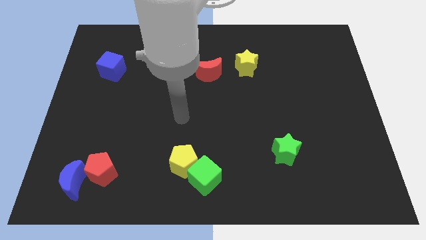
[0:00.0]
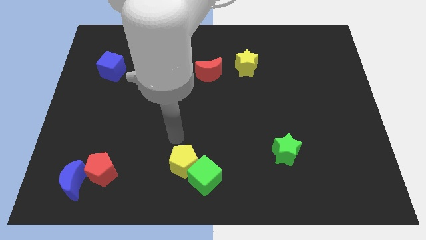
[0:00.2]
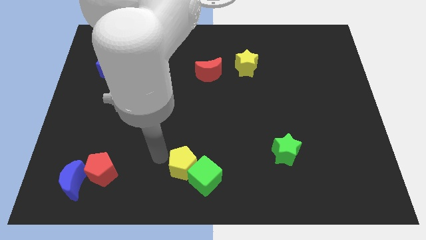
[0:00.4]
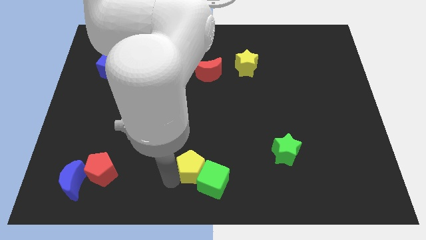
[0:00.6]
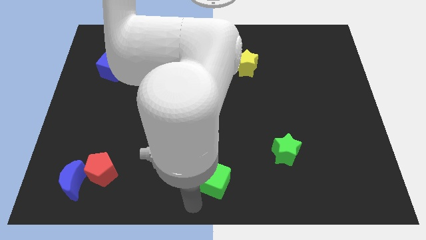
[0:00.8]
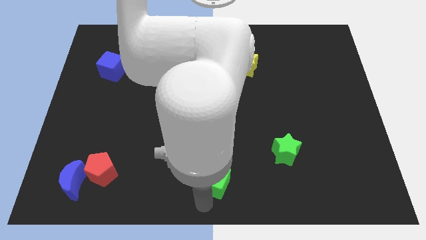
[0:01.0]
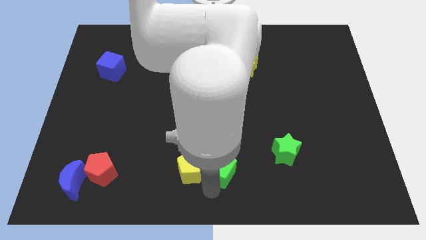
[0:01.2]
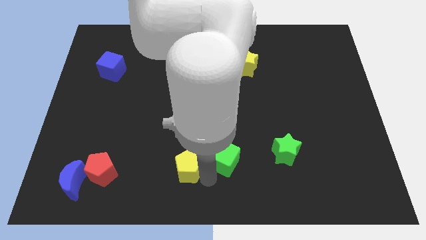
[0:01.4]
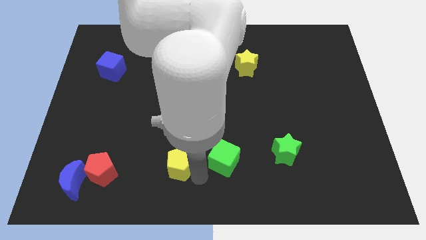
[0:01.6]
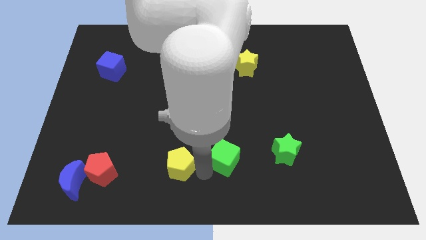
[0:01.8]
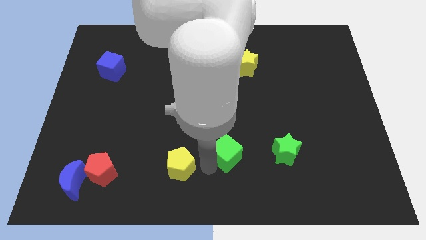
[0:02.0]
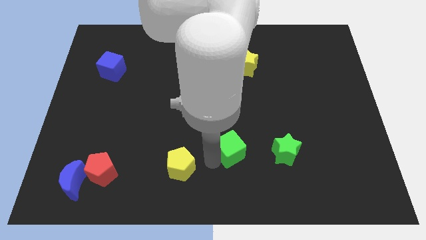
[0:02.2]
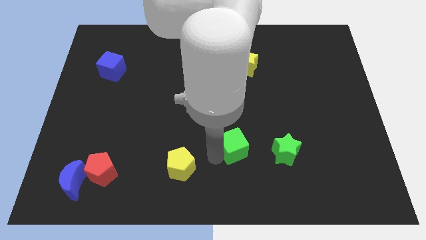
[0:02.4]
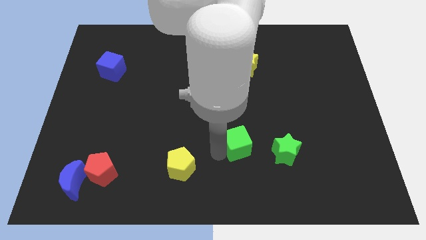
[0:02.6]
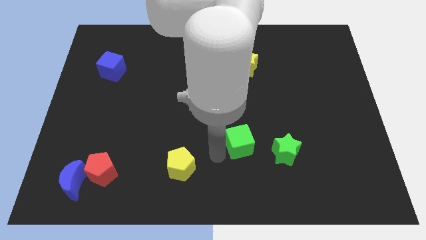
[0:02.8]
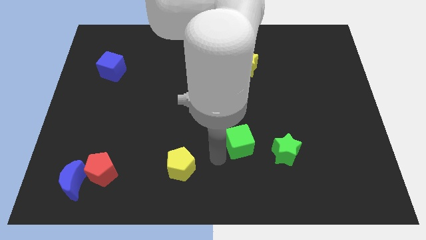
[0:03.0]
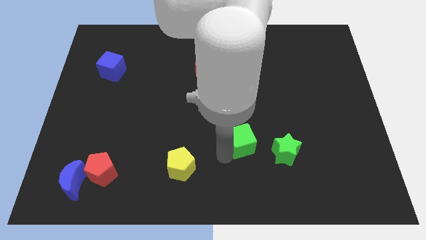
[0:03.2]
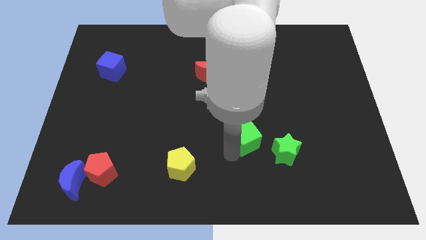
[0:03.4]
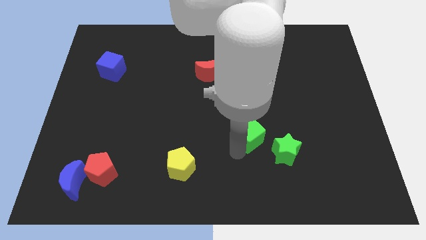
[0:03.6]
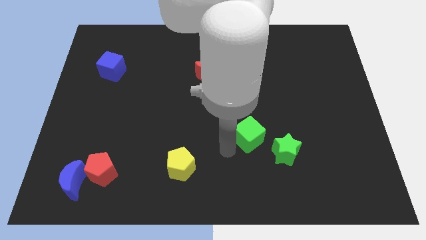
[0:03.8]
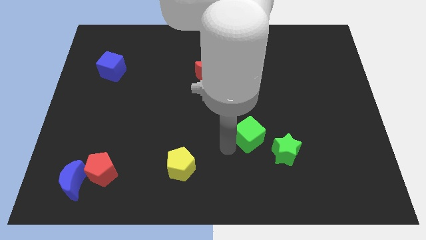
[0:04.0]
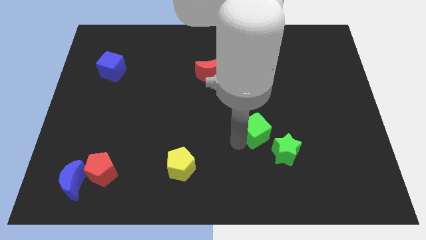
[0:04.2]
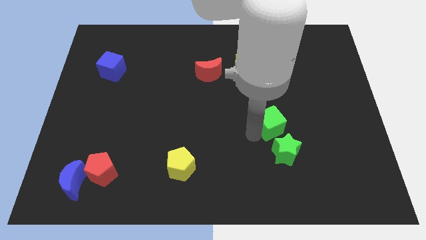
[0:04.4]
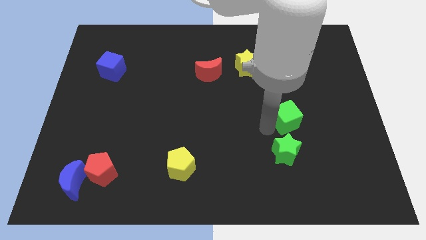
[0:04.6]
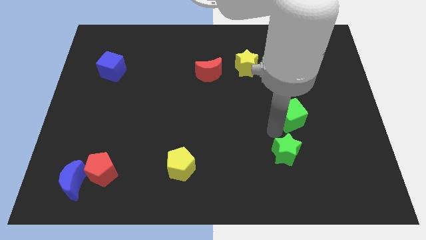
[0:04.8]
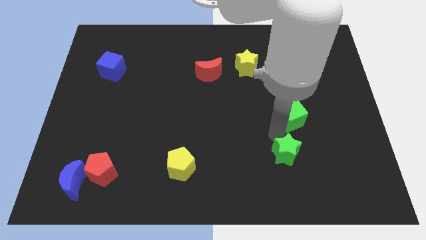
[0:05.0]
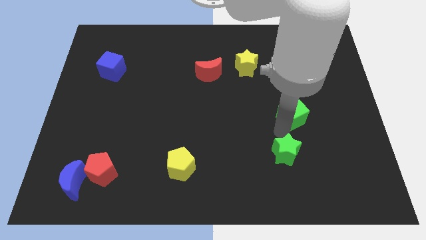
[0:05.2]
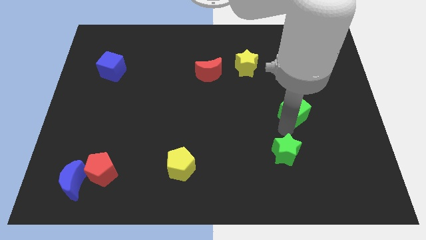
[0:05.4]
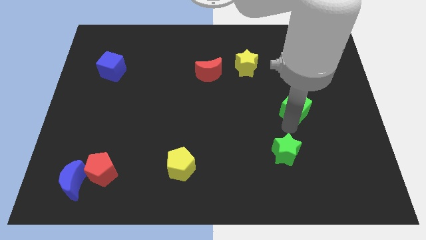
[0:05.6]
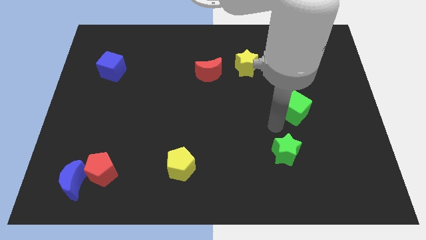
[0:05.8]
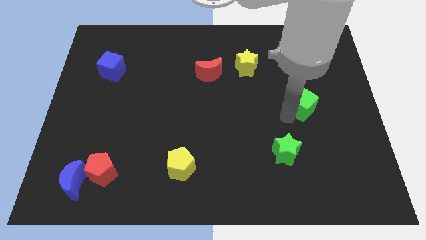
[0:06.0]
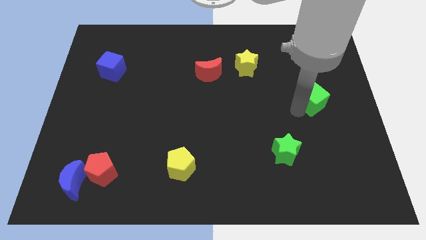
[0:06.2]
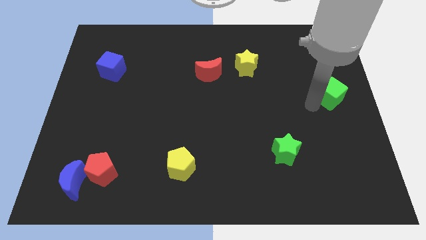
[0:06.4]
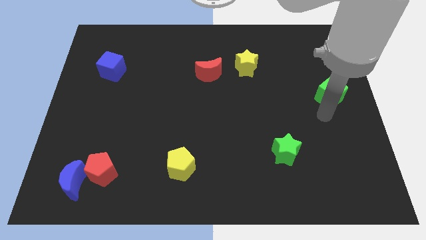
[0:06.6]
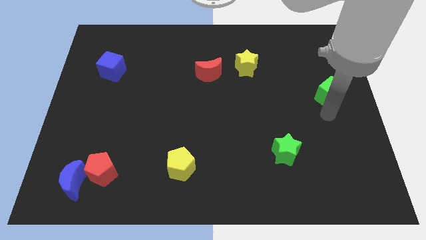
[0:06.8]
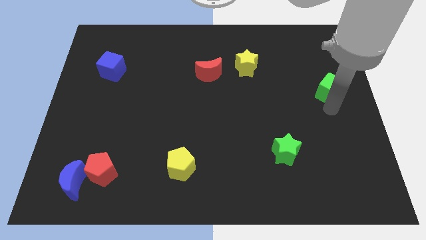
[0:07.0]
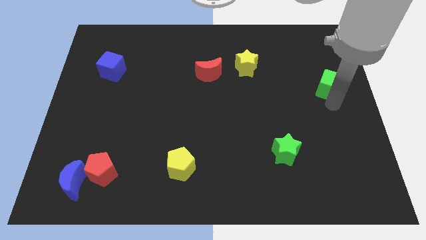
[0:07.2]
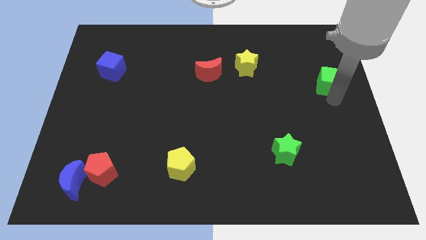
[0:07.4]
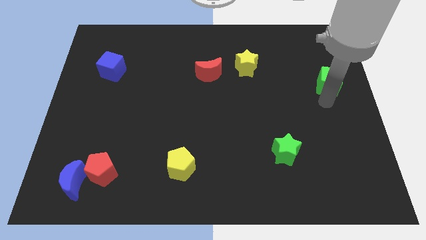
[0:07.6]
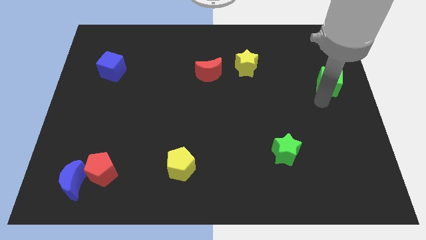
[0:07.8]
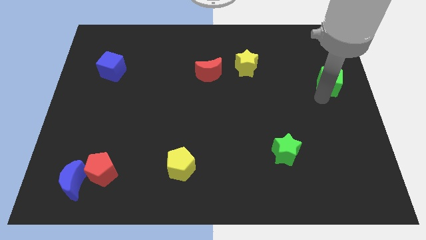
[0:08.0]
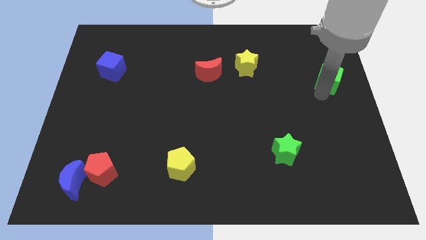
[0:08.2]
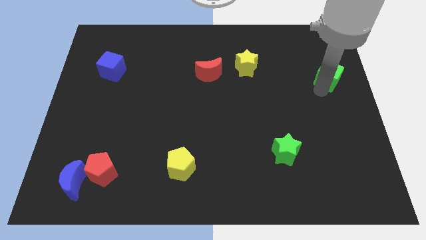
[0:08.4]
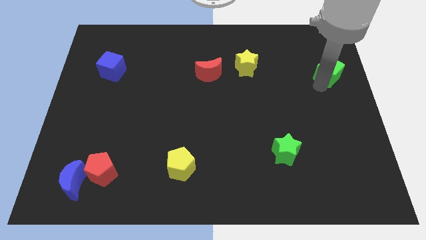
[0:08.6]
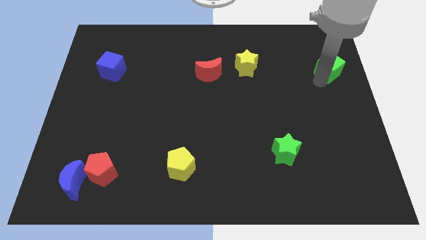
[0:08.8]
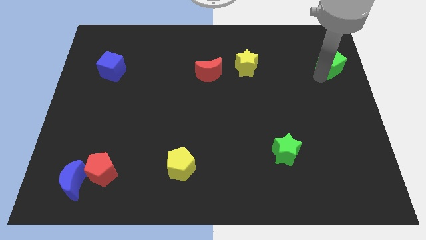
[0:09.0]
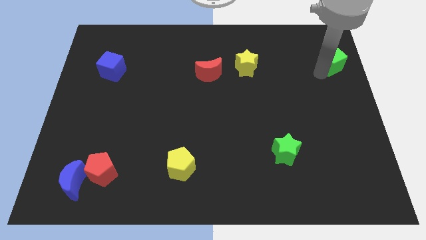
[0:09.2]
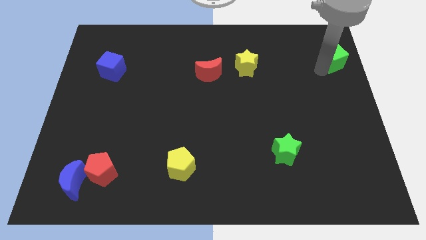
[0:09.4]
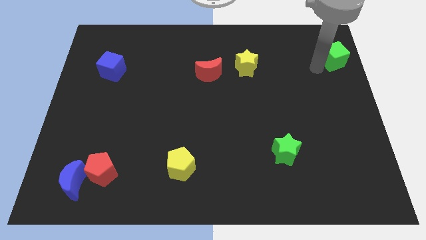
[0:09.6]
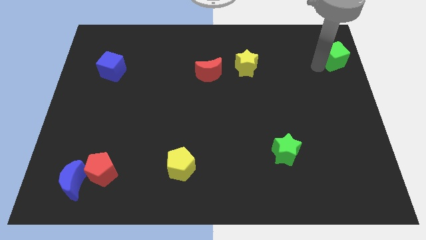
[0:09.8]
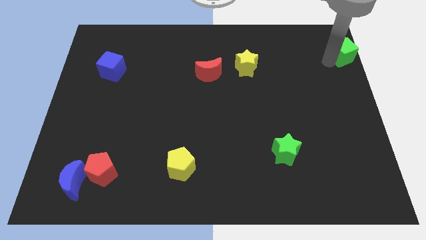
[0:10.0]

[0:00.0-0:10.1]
slide the green cube to the top right of the board

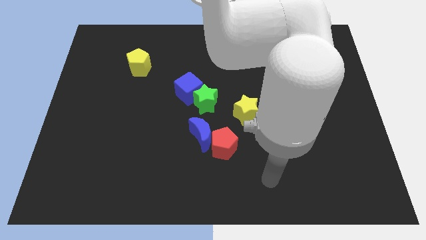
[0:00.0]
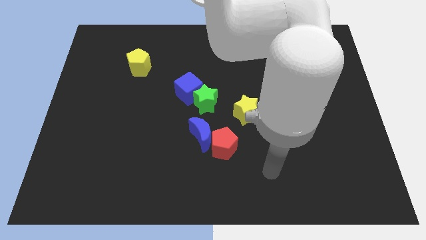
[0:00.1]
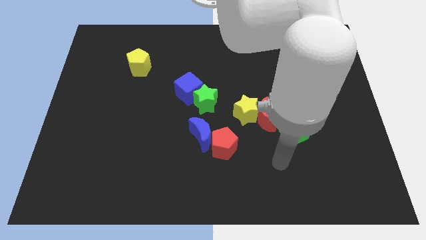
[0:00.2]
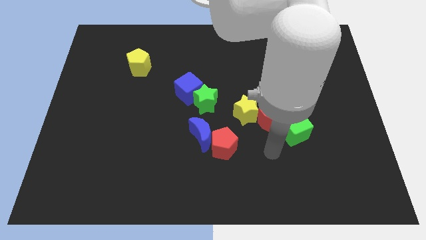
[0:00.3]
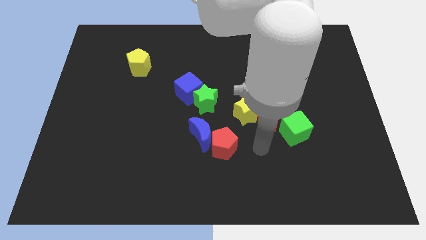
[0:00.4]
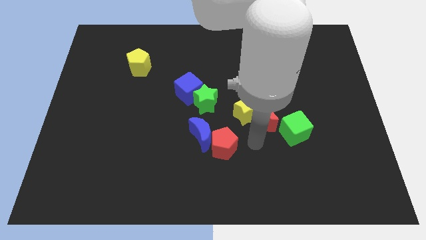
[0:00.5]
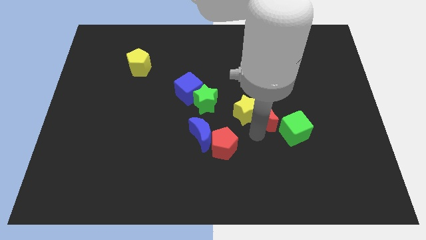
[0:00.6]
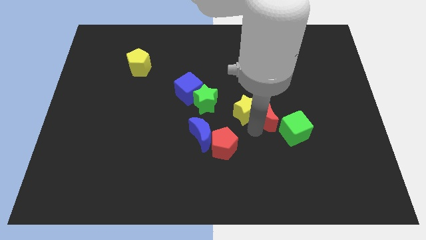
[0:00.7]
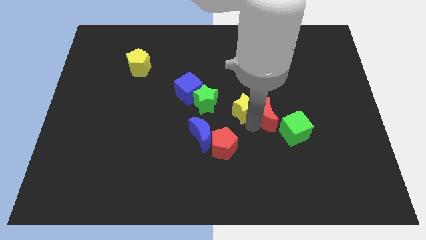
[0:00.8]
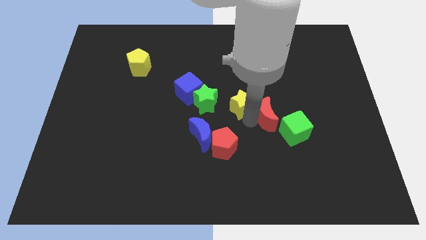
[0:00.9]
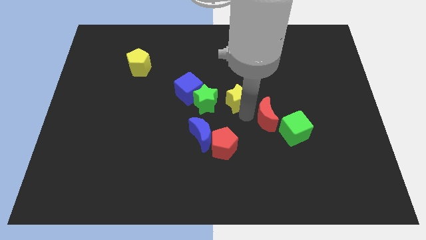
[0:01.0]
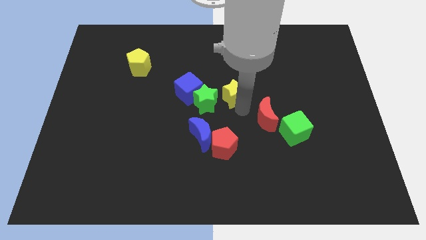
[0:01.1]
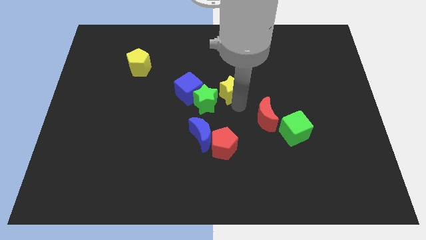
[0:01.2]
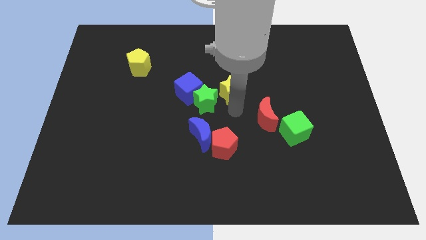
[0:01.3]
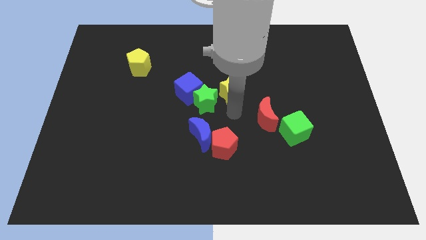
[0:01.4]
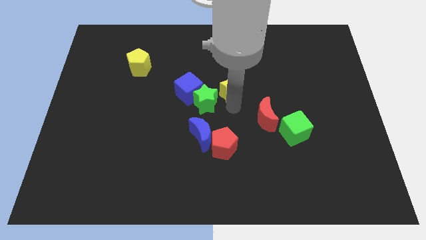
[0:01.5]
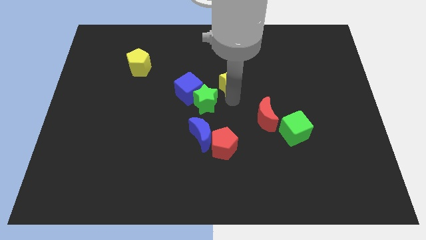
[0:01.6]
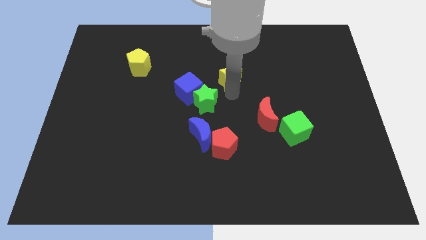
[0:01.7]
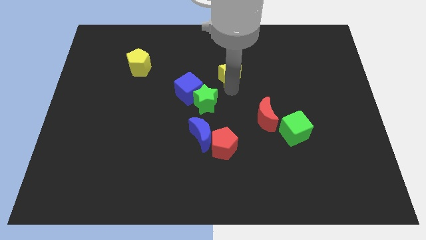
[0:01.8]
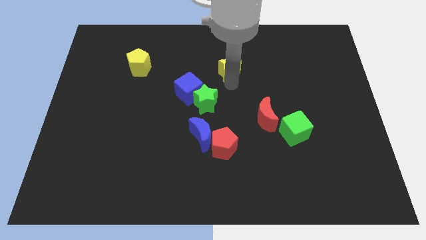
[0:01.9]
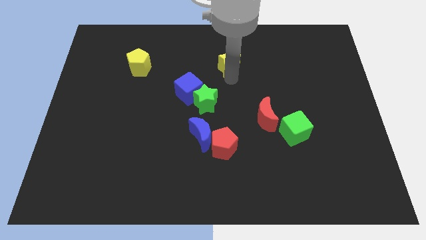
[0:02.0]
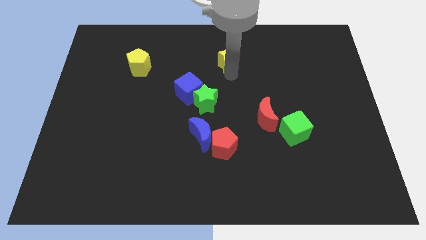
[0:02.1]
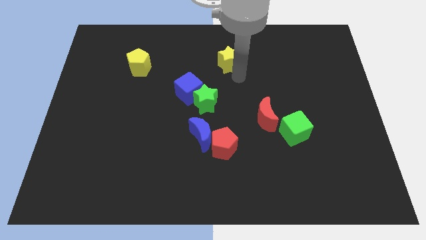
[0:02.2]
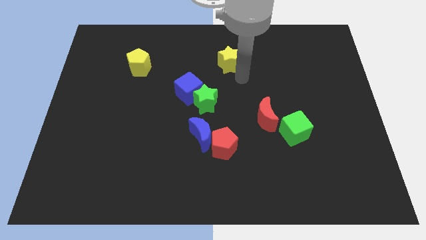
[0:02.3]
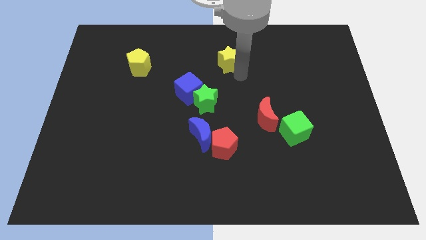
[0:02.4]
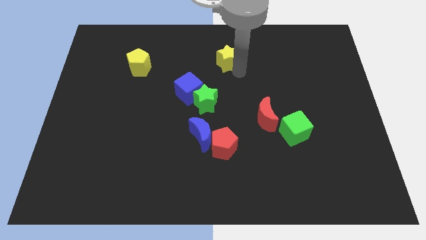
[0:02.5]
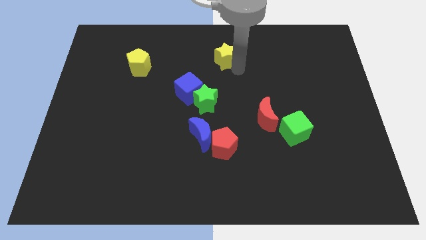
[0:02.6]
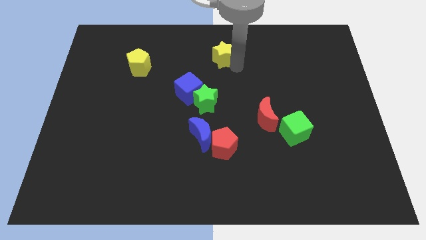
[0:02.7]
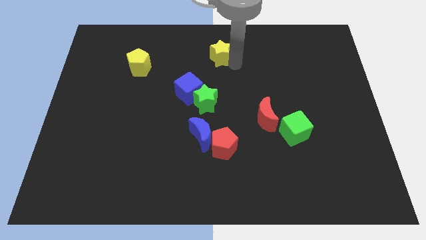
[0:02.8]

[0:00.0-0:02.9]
slide the yellow star to the top side
